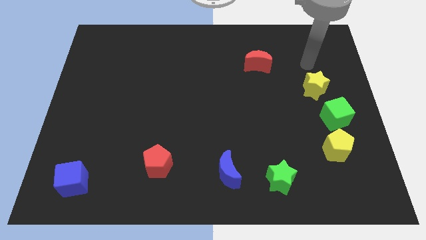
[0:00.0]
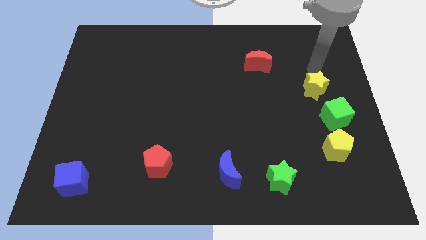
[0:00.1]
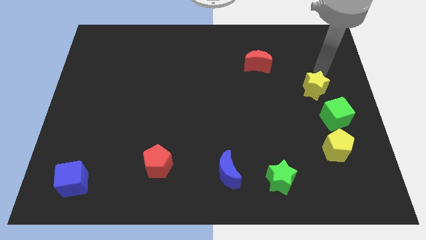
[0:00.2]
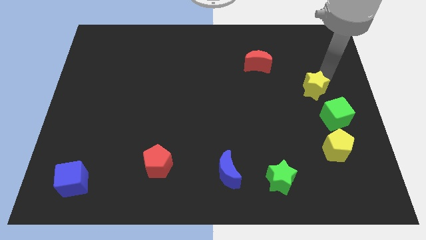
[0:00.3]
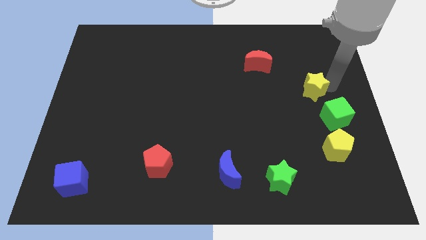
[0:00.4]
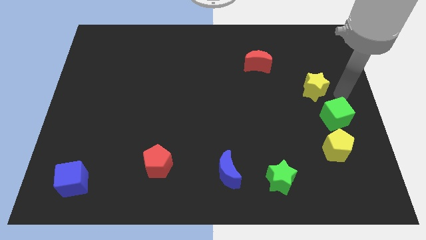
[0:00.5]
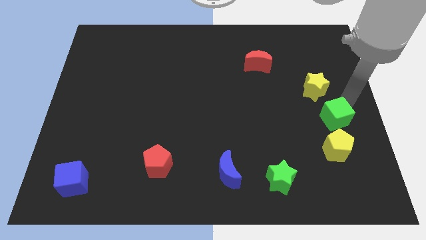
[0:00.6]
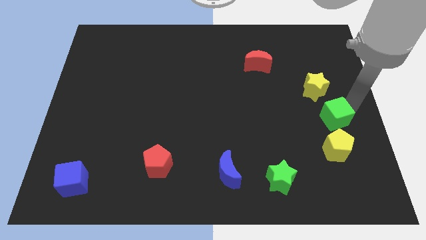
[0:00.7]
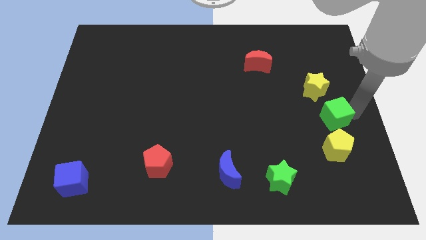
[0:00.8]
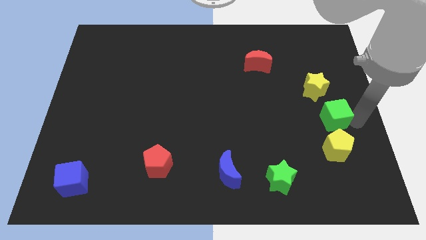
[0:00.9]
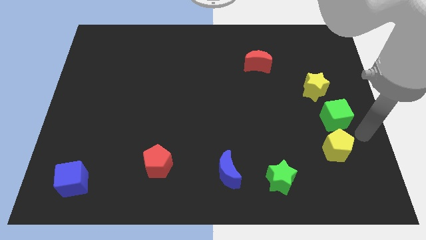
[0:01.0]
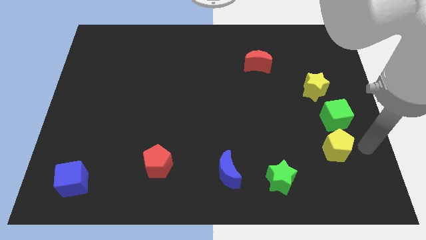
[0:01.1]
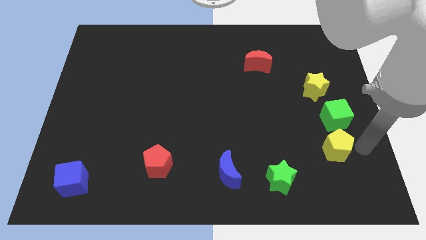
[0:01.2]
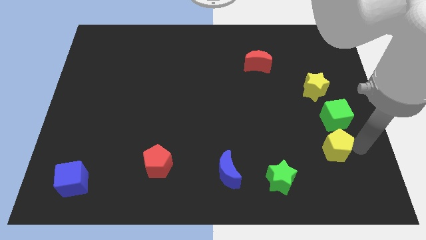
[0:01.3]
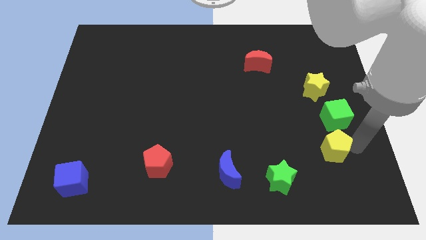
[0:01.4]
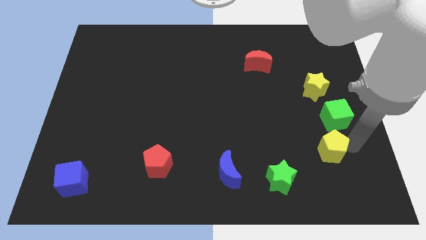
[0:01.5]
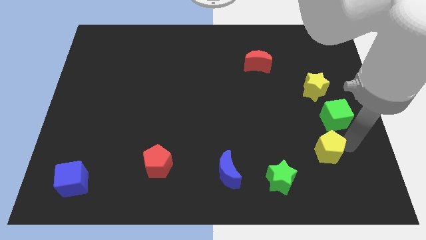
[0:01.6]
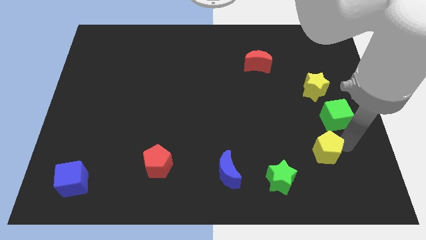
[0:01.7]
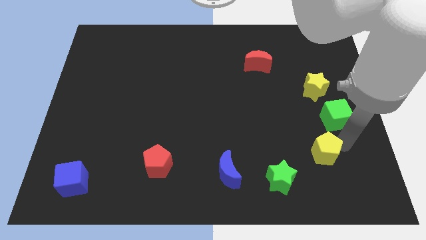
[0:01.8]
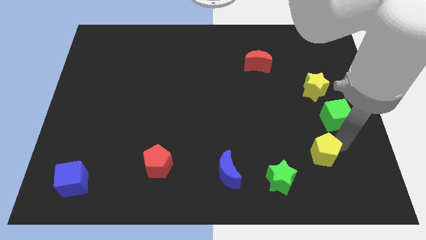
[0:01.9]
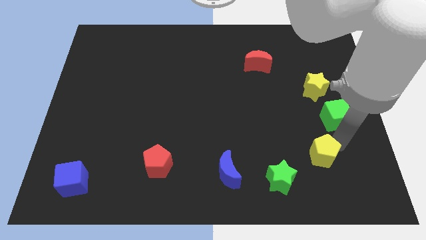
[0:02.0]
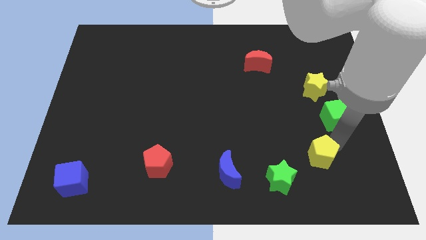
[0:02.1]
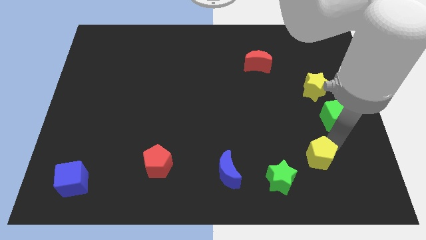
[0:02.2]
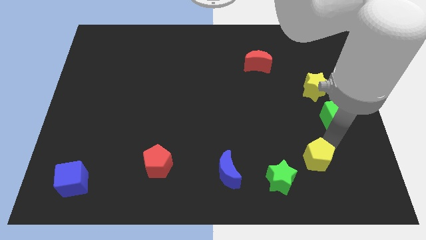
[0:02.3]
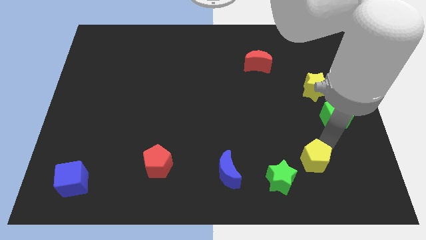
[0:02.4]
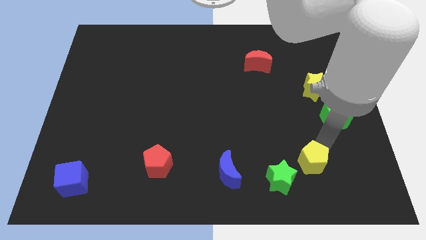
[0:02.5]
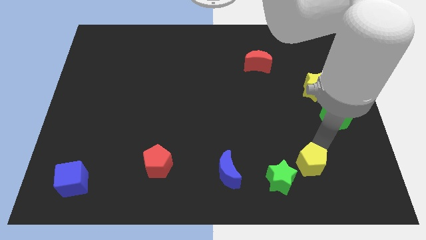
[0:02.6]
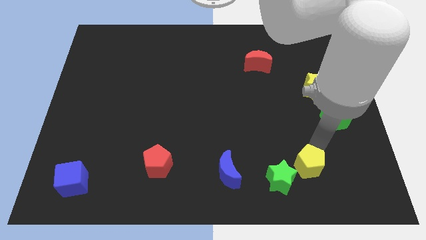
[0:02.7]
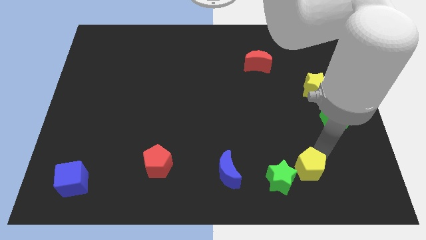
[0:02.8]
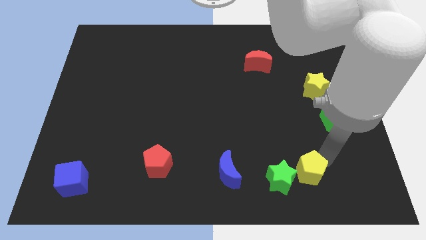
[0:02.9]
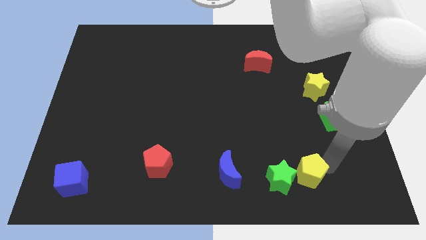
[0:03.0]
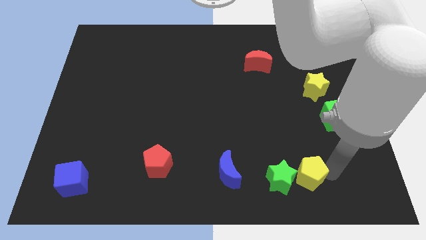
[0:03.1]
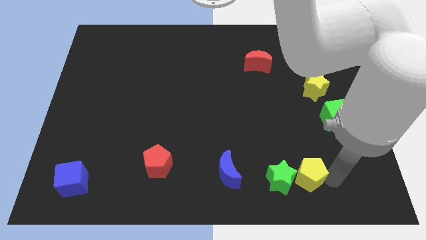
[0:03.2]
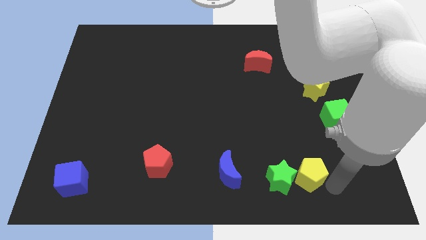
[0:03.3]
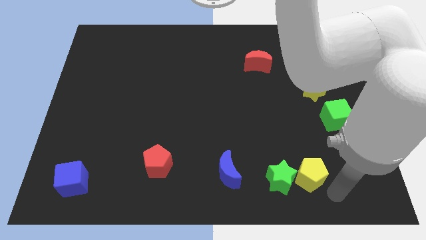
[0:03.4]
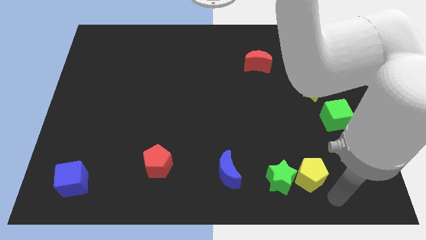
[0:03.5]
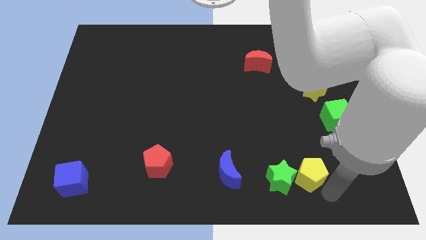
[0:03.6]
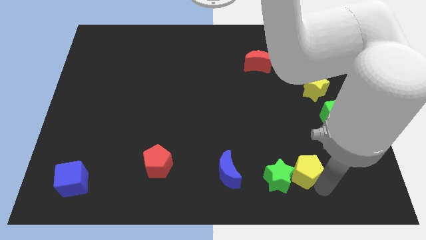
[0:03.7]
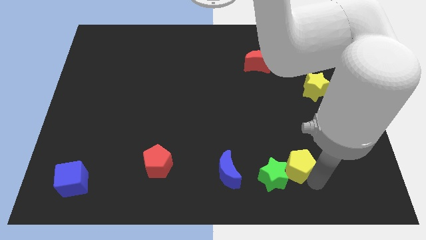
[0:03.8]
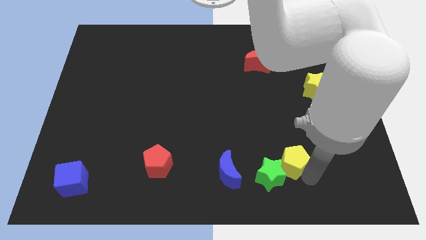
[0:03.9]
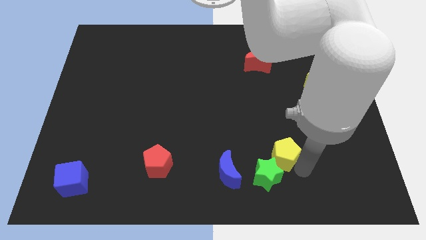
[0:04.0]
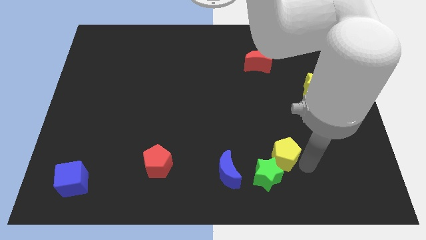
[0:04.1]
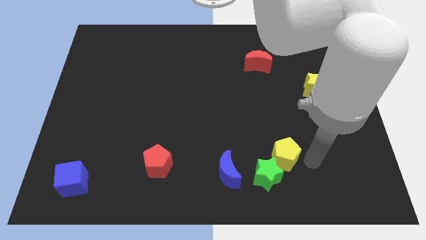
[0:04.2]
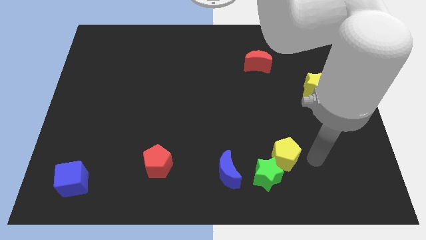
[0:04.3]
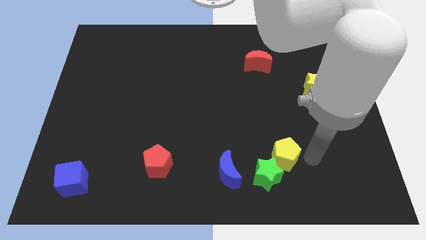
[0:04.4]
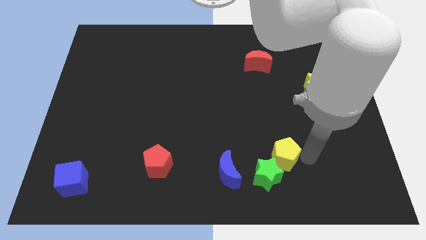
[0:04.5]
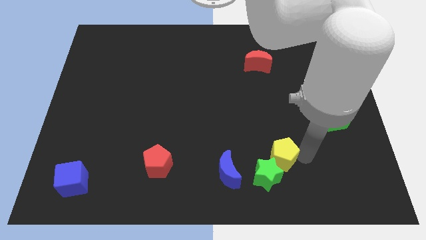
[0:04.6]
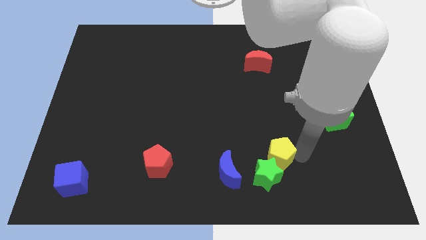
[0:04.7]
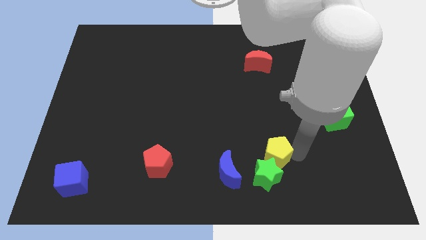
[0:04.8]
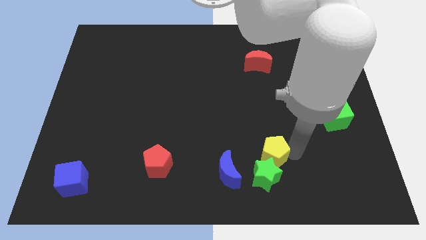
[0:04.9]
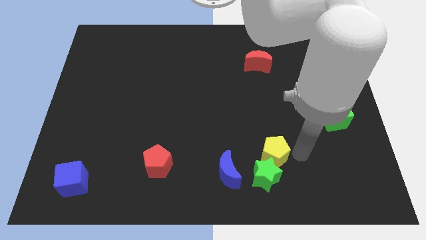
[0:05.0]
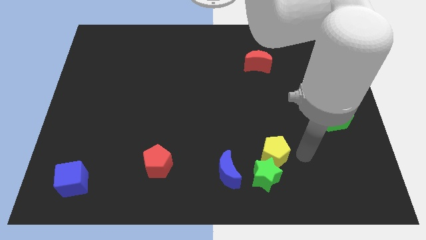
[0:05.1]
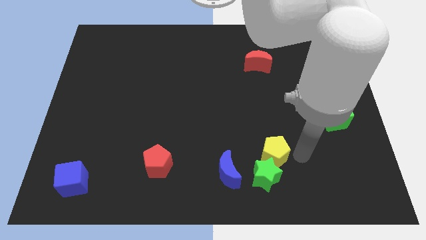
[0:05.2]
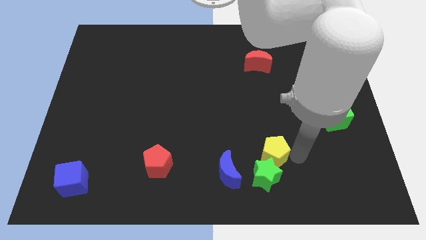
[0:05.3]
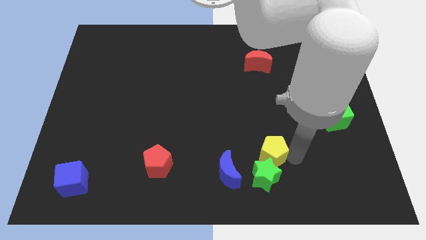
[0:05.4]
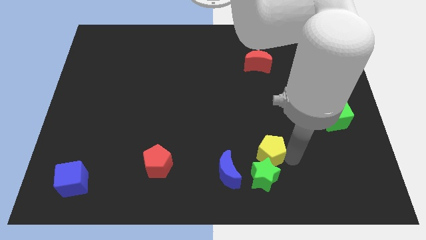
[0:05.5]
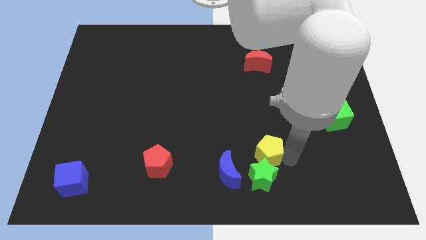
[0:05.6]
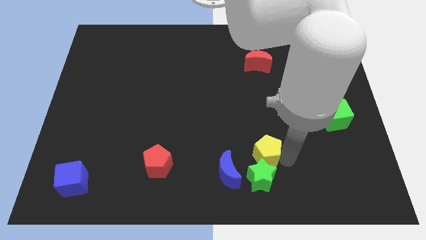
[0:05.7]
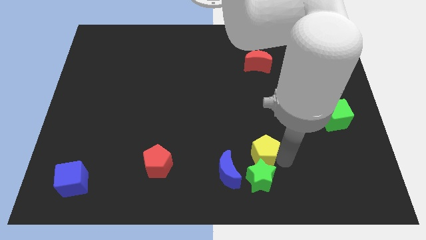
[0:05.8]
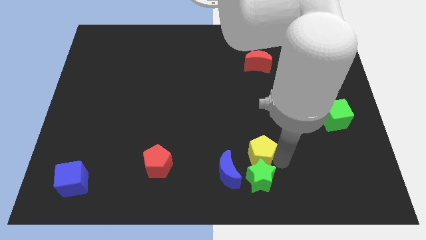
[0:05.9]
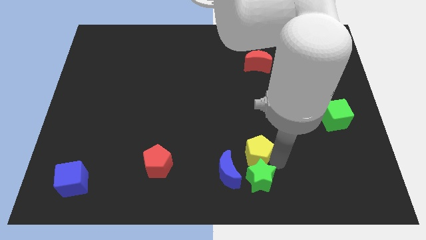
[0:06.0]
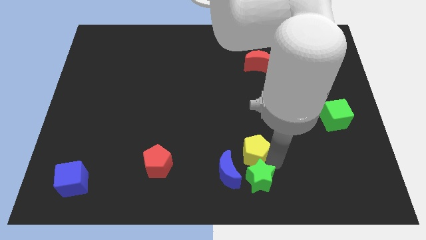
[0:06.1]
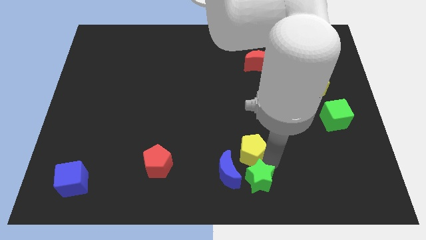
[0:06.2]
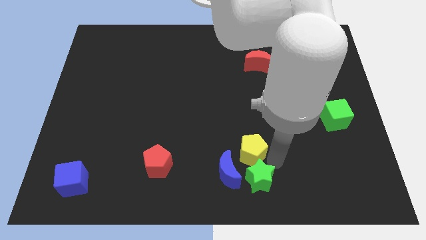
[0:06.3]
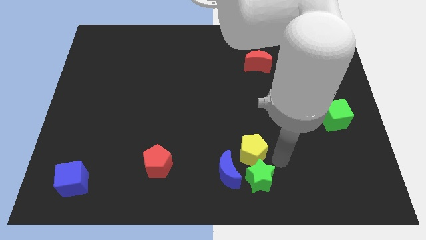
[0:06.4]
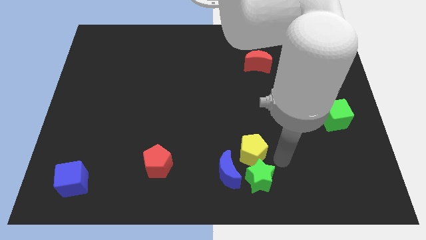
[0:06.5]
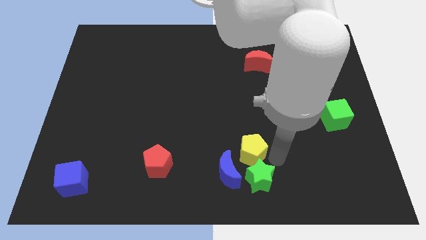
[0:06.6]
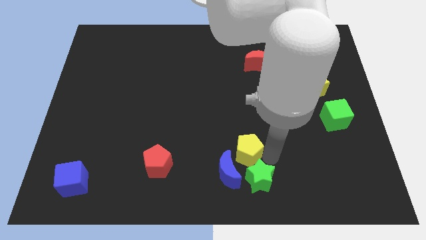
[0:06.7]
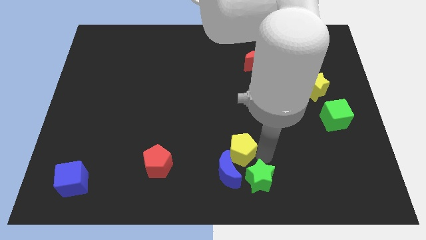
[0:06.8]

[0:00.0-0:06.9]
slide the yellow pentagon to the left

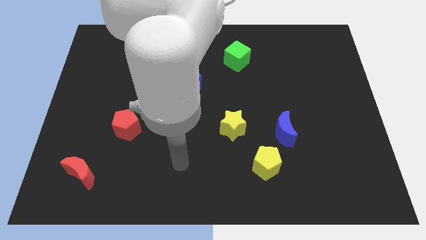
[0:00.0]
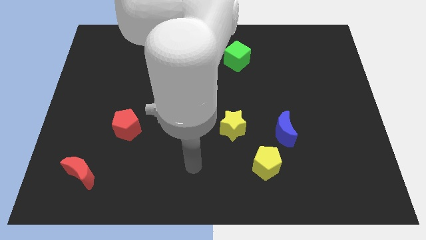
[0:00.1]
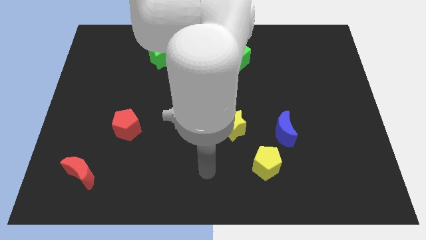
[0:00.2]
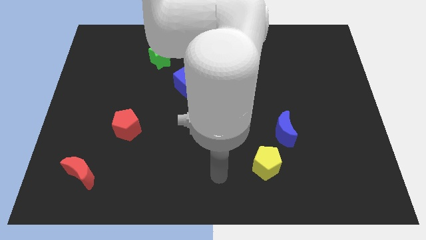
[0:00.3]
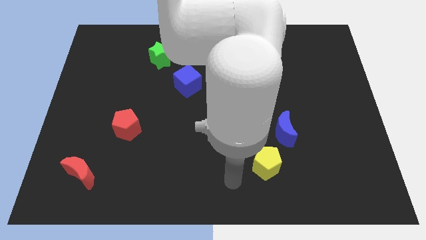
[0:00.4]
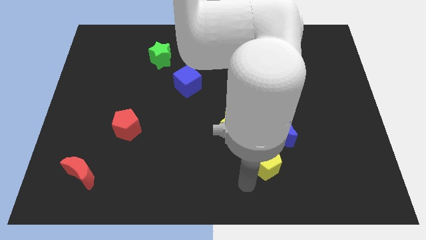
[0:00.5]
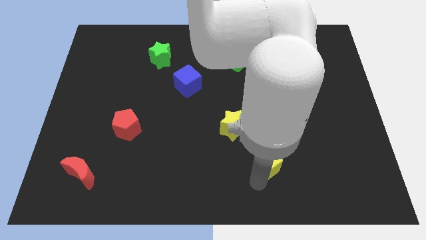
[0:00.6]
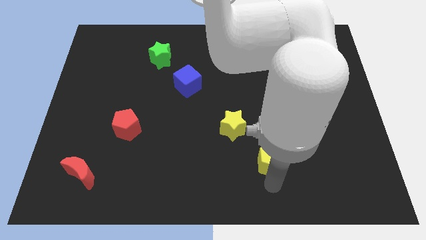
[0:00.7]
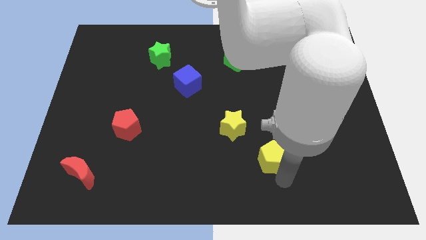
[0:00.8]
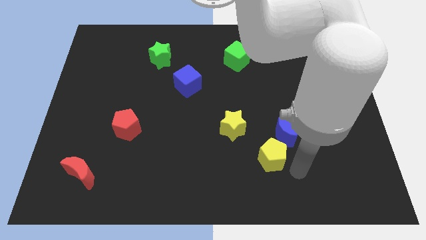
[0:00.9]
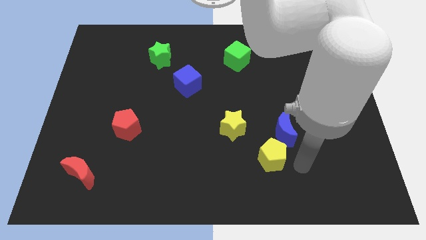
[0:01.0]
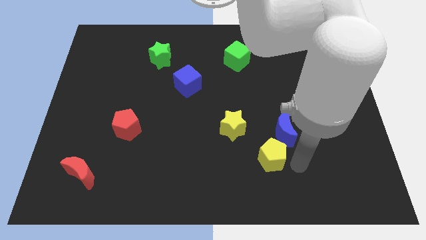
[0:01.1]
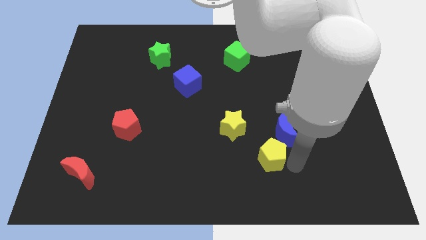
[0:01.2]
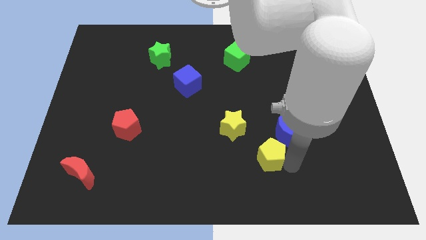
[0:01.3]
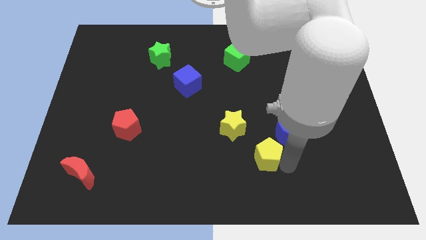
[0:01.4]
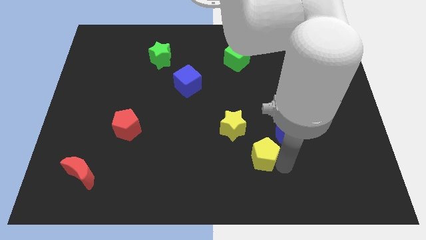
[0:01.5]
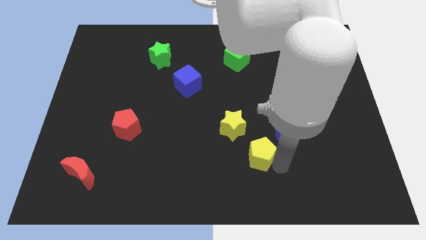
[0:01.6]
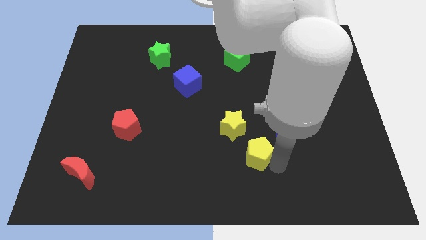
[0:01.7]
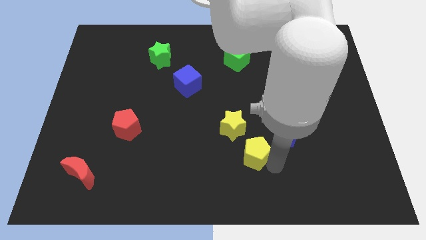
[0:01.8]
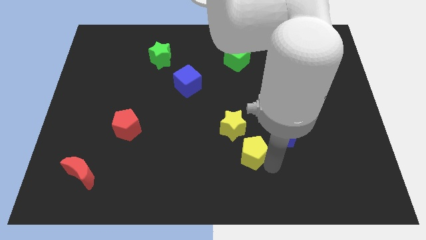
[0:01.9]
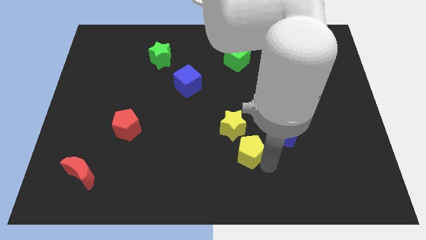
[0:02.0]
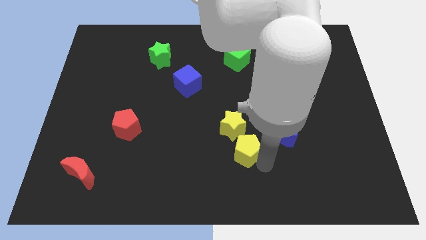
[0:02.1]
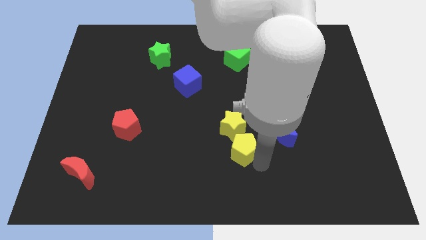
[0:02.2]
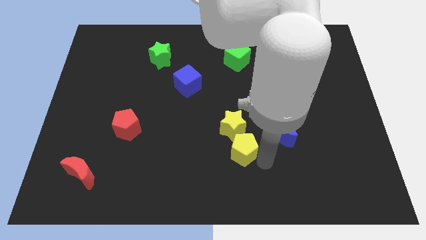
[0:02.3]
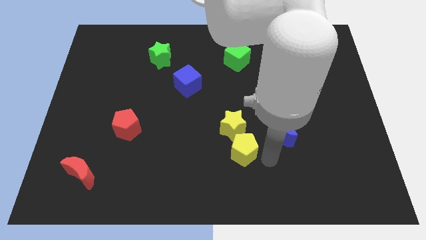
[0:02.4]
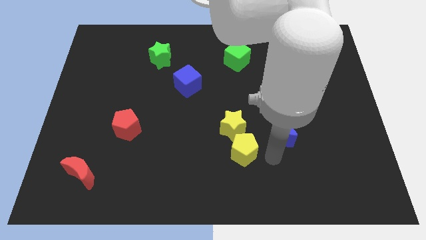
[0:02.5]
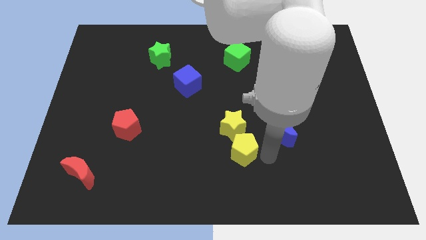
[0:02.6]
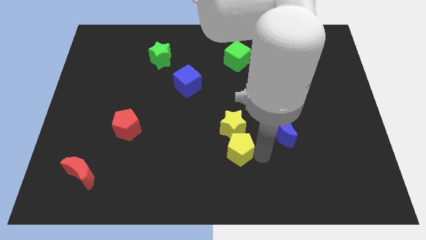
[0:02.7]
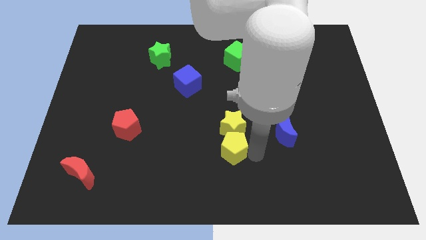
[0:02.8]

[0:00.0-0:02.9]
slightly slide the yellow pentagon up and then left
